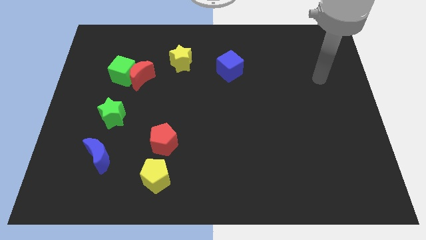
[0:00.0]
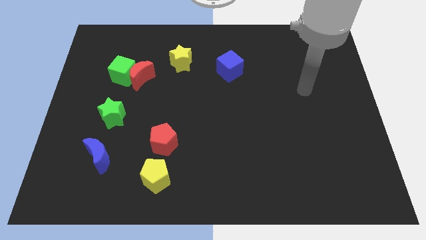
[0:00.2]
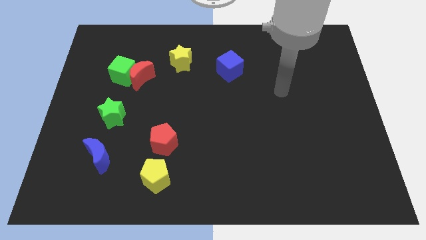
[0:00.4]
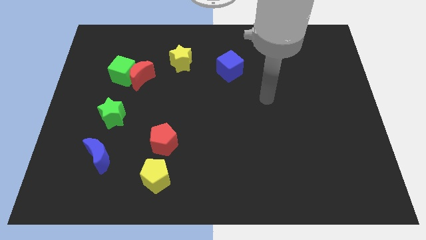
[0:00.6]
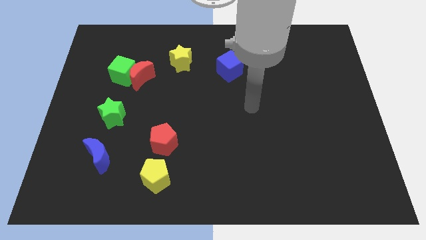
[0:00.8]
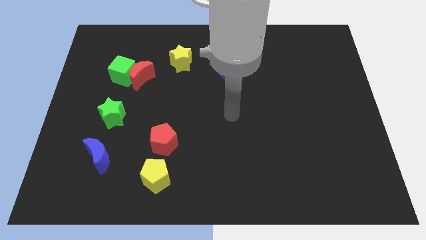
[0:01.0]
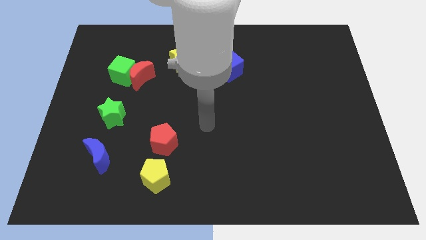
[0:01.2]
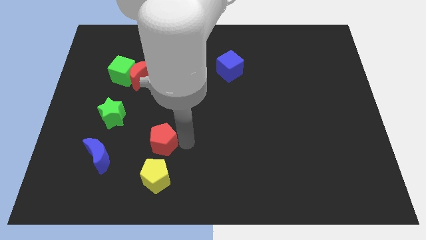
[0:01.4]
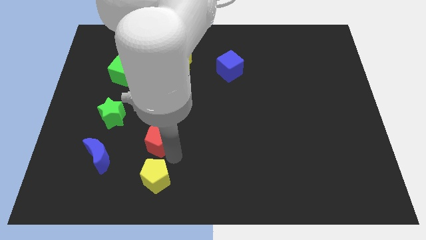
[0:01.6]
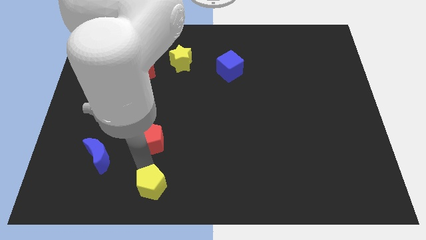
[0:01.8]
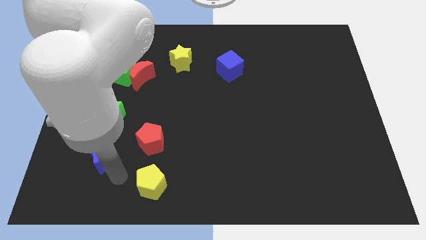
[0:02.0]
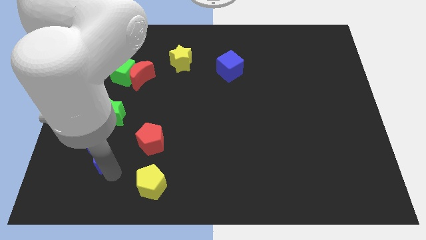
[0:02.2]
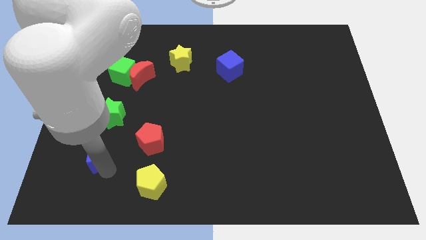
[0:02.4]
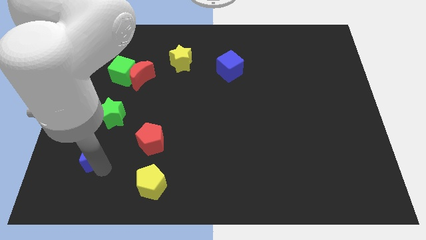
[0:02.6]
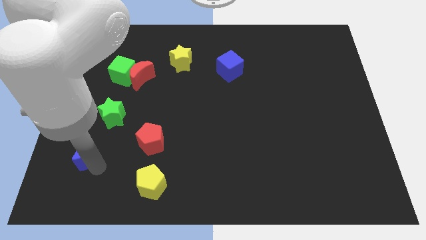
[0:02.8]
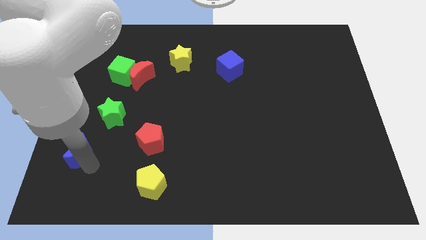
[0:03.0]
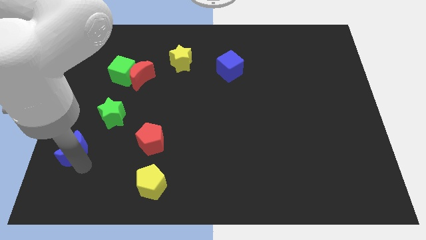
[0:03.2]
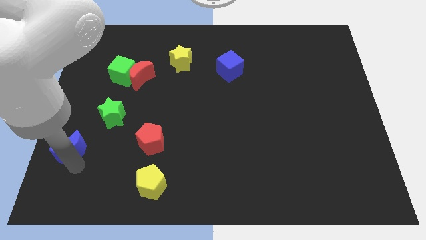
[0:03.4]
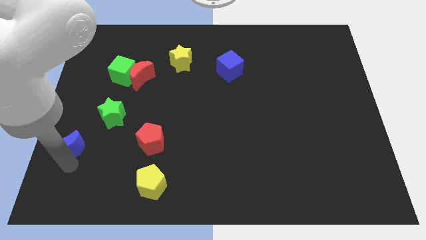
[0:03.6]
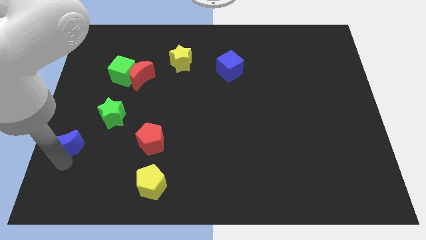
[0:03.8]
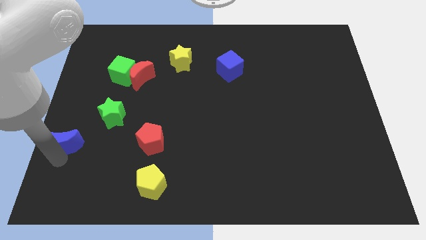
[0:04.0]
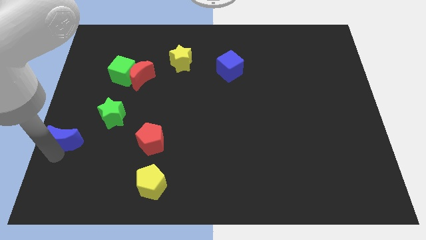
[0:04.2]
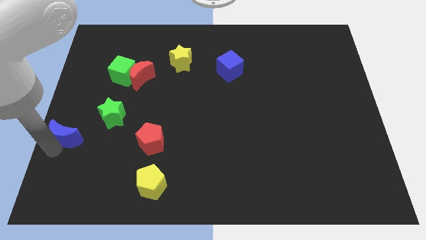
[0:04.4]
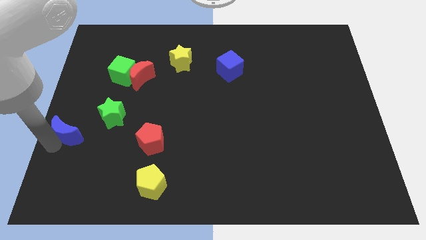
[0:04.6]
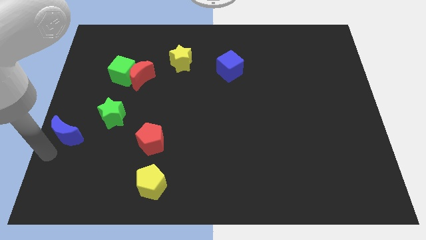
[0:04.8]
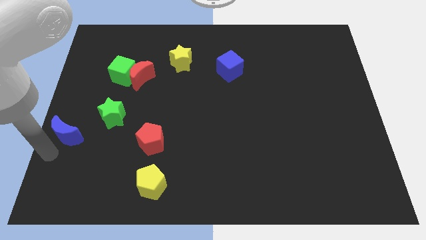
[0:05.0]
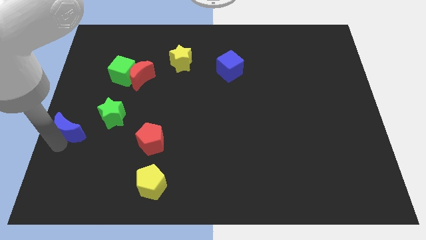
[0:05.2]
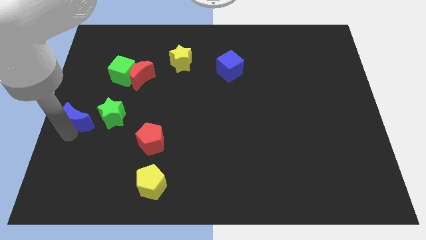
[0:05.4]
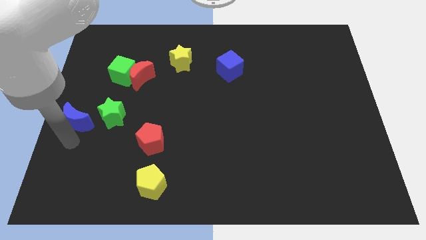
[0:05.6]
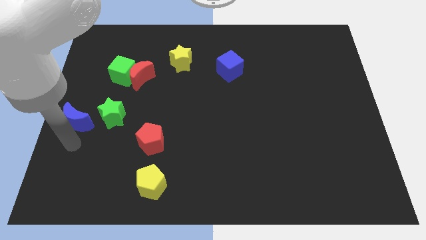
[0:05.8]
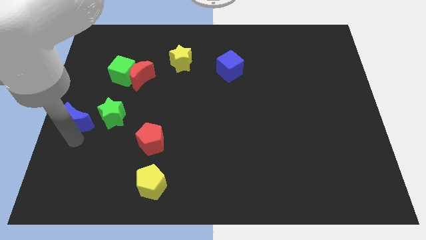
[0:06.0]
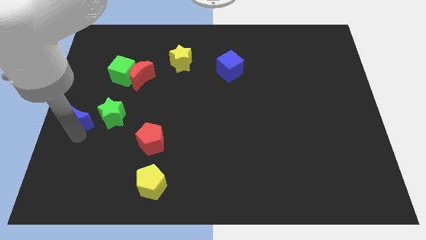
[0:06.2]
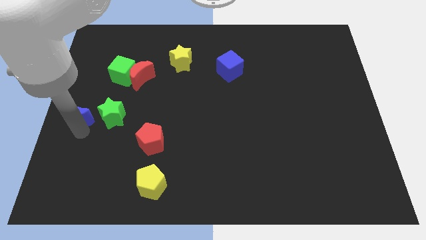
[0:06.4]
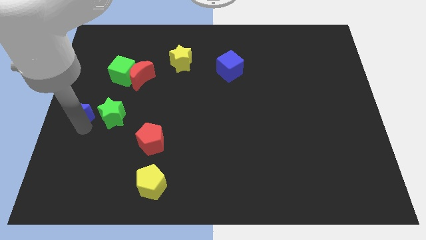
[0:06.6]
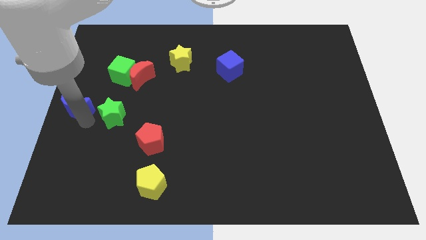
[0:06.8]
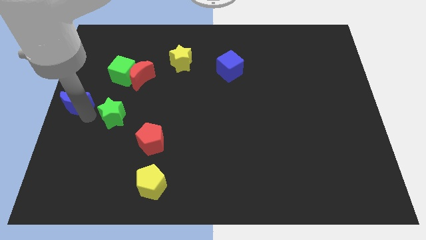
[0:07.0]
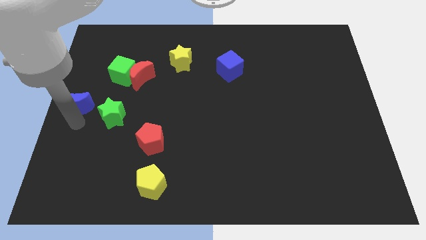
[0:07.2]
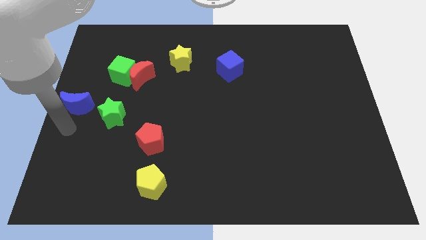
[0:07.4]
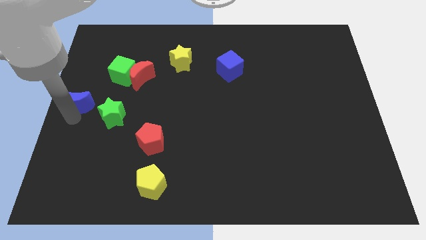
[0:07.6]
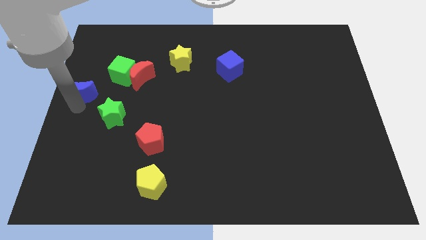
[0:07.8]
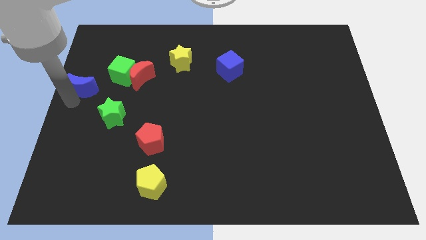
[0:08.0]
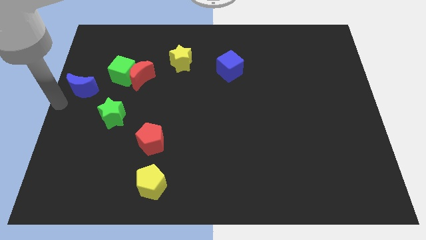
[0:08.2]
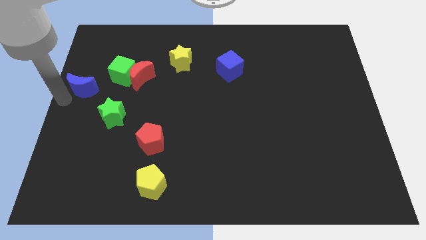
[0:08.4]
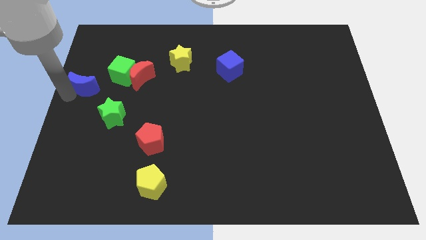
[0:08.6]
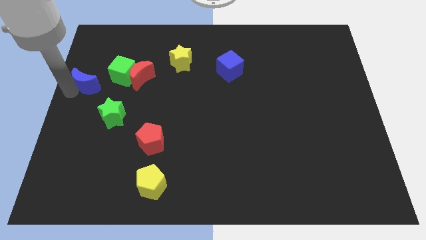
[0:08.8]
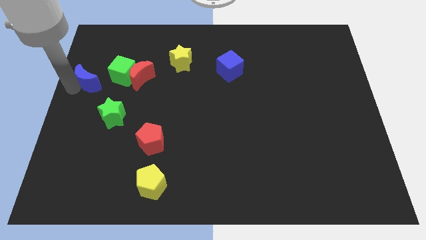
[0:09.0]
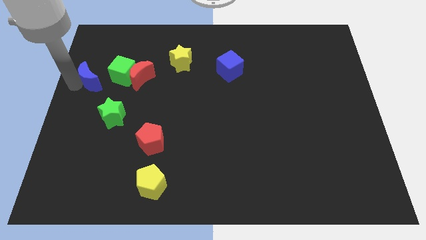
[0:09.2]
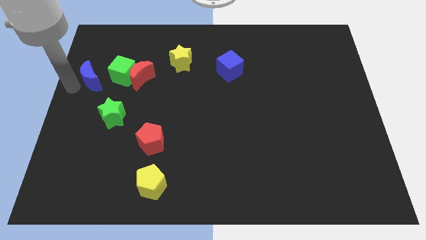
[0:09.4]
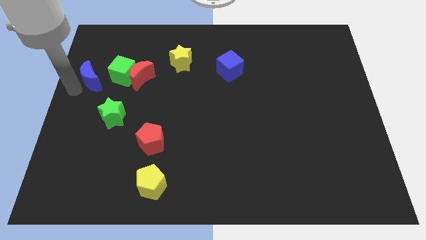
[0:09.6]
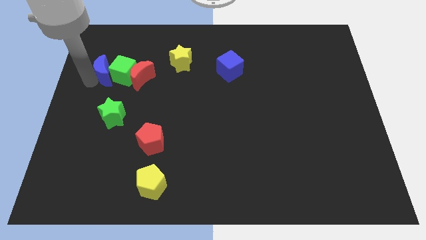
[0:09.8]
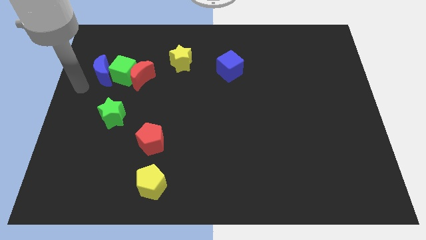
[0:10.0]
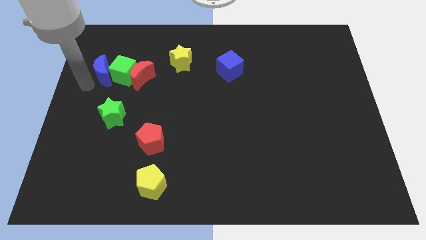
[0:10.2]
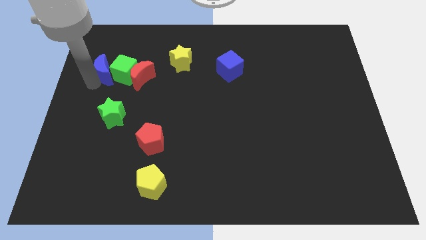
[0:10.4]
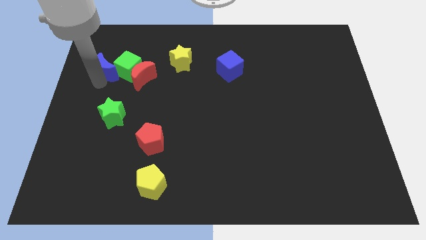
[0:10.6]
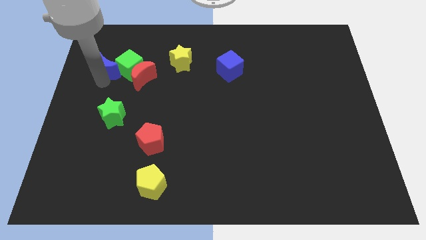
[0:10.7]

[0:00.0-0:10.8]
put the blue moon to the top left side of the red moon

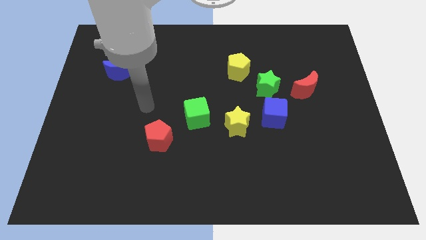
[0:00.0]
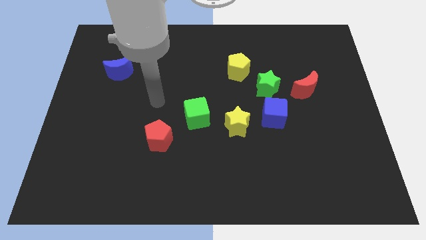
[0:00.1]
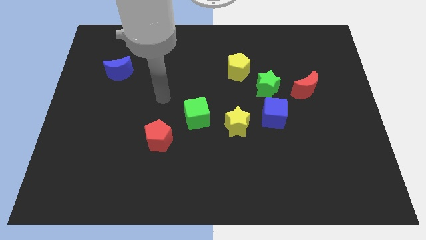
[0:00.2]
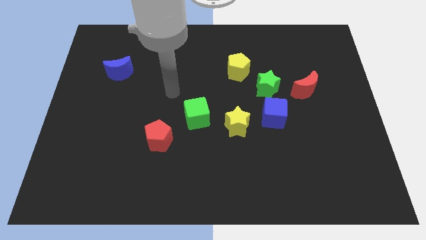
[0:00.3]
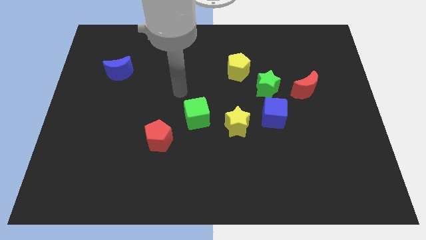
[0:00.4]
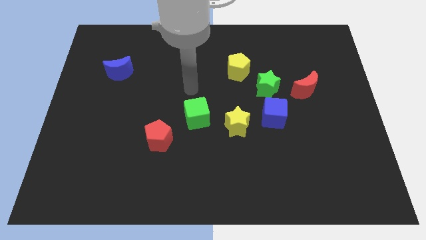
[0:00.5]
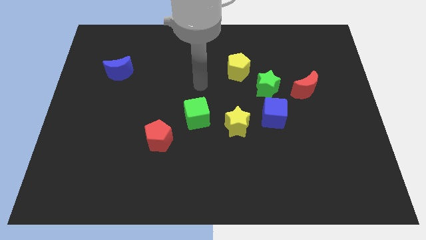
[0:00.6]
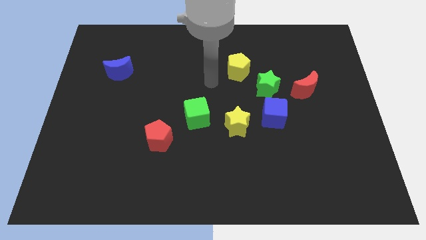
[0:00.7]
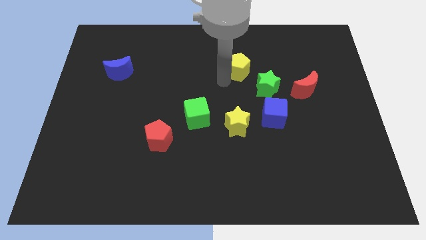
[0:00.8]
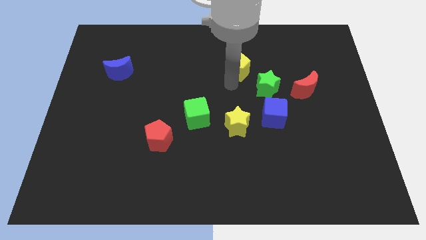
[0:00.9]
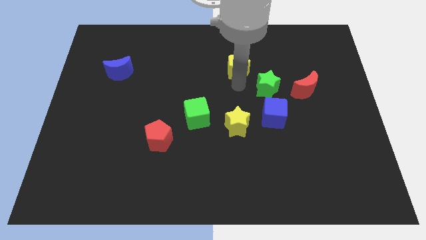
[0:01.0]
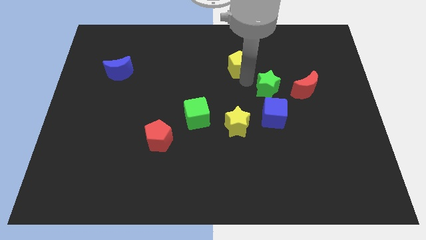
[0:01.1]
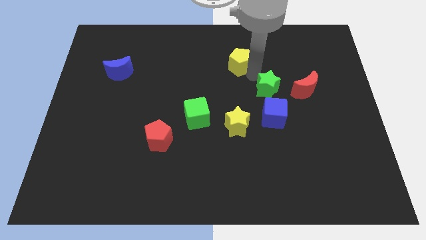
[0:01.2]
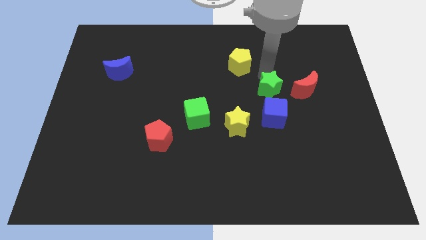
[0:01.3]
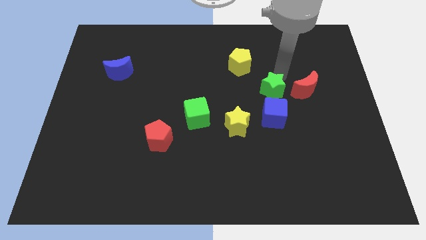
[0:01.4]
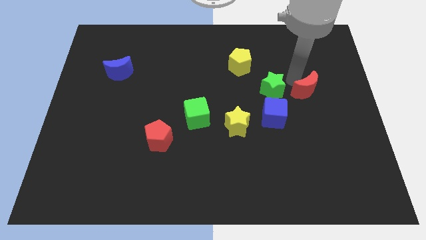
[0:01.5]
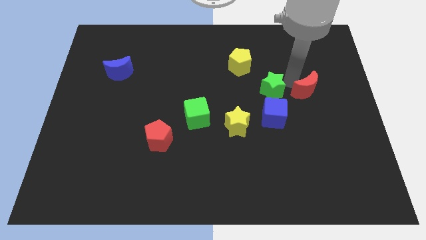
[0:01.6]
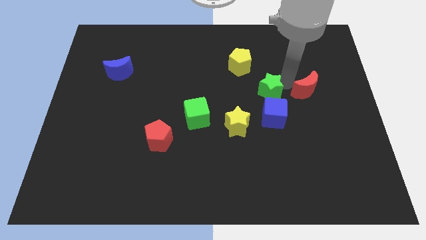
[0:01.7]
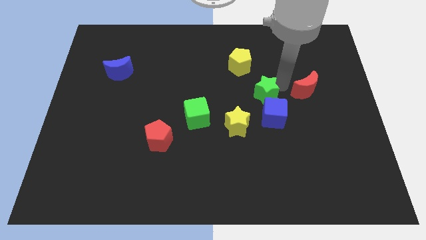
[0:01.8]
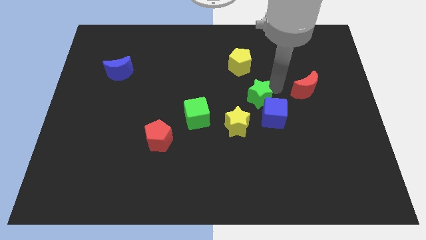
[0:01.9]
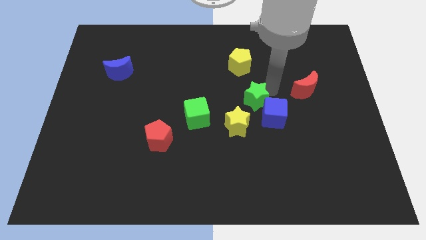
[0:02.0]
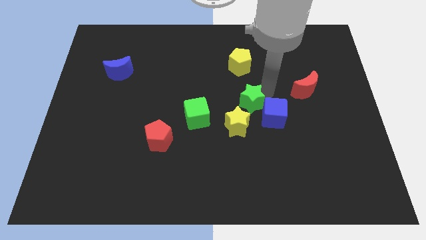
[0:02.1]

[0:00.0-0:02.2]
push the green star to the left side of the blue cube
